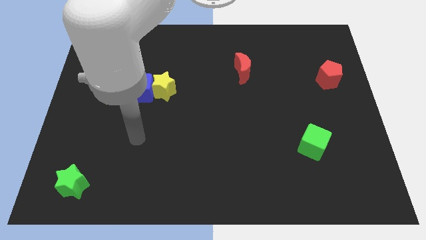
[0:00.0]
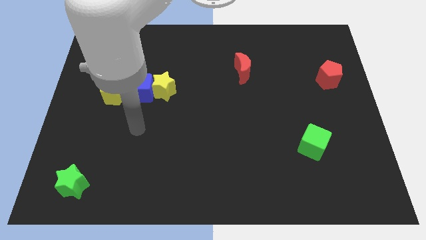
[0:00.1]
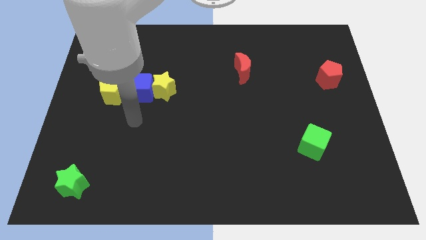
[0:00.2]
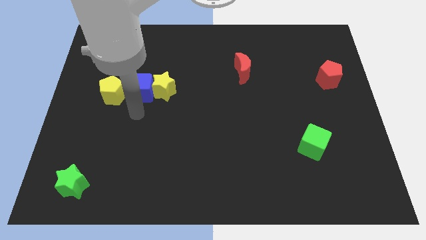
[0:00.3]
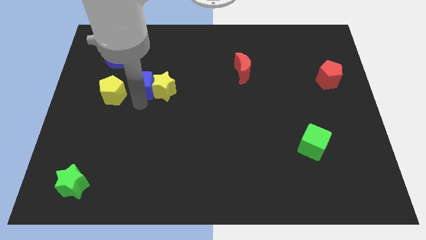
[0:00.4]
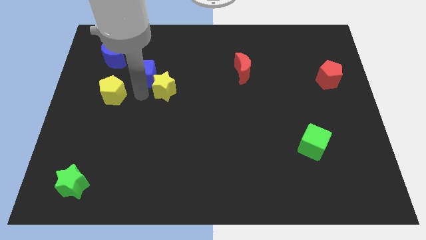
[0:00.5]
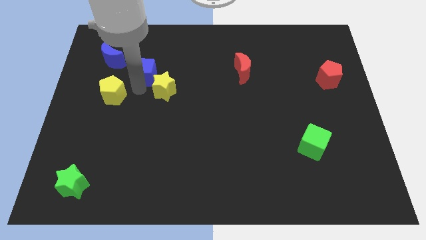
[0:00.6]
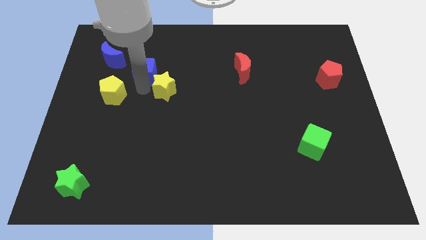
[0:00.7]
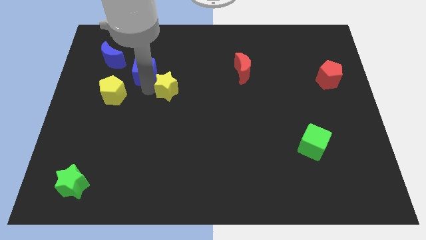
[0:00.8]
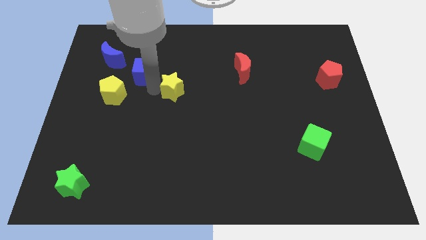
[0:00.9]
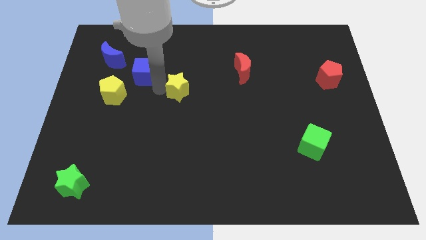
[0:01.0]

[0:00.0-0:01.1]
move the yellow star away from the blue cube

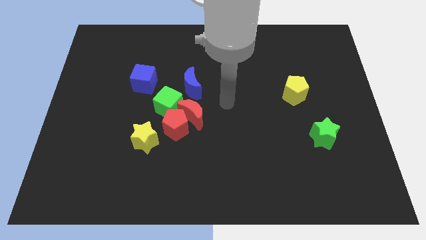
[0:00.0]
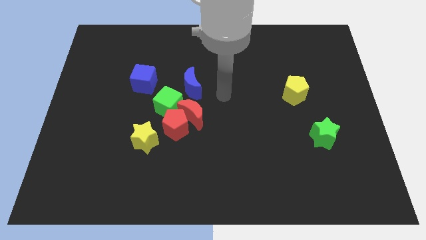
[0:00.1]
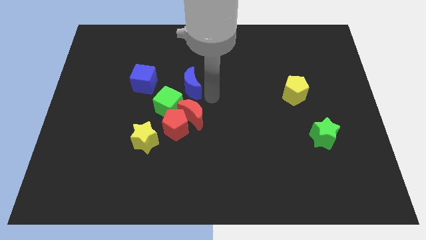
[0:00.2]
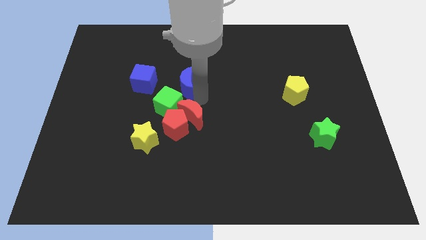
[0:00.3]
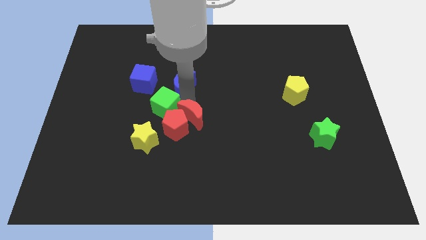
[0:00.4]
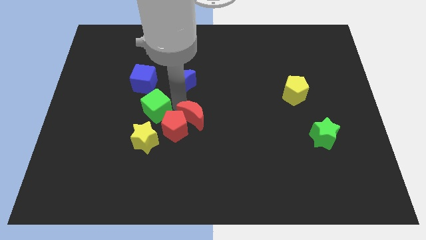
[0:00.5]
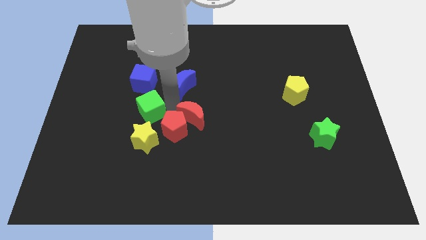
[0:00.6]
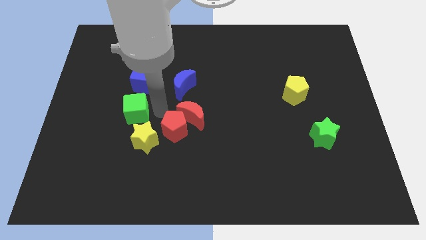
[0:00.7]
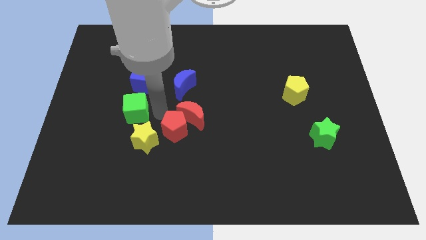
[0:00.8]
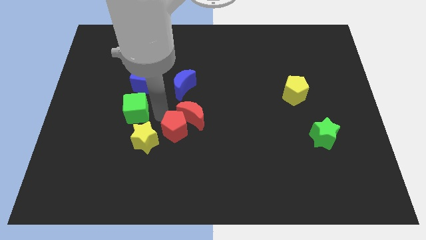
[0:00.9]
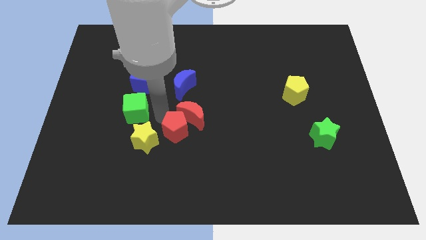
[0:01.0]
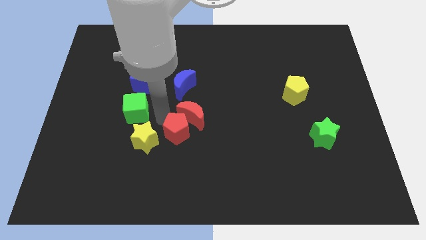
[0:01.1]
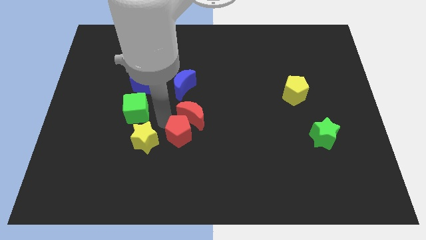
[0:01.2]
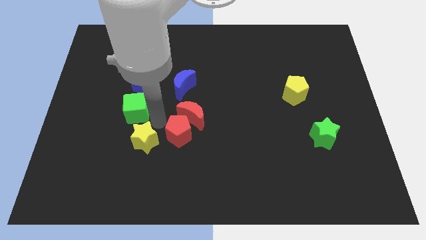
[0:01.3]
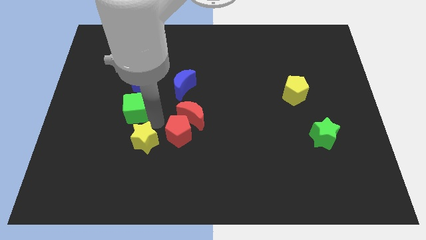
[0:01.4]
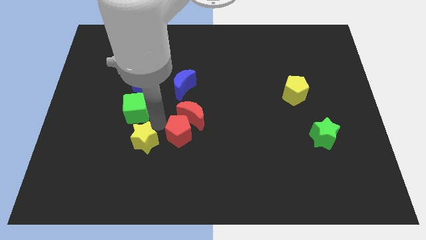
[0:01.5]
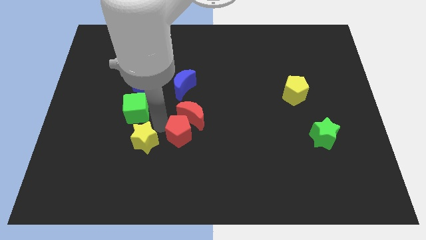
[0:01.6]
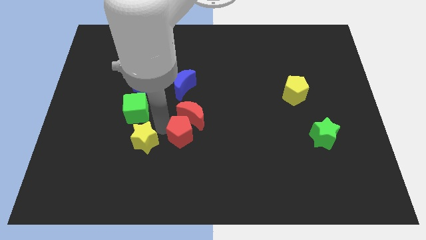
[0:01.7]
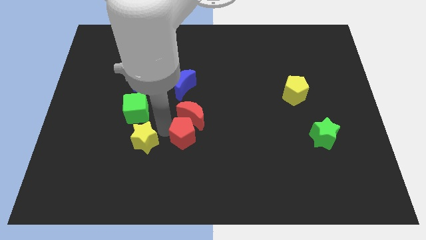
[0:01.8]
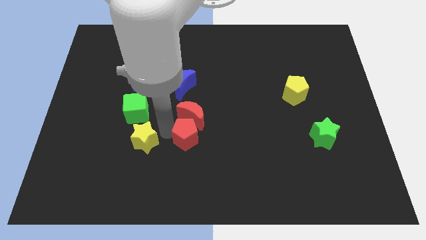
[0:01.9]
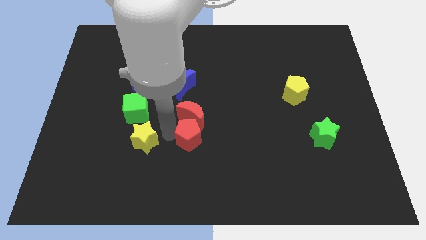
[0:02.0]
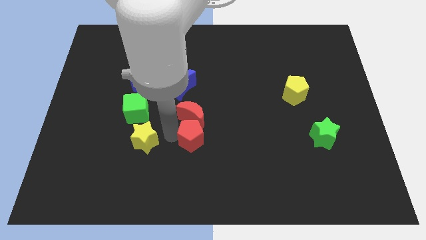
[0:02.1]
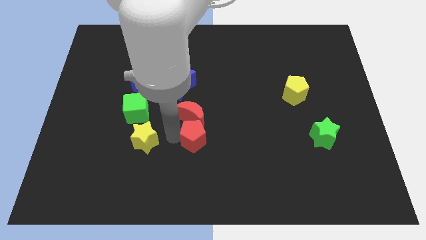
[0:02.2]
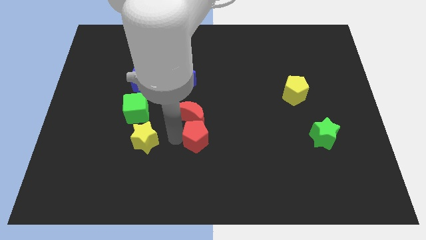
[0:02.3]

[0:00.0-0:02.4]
move the red pentagon away from the clump

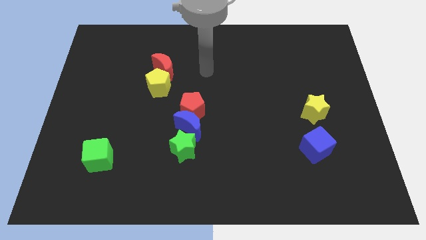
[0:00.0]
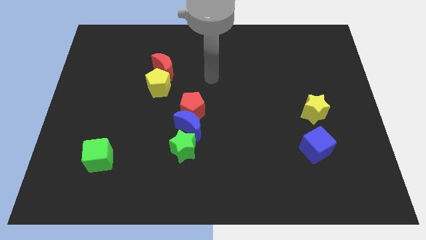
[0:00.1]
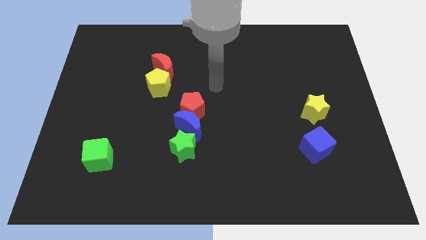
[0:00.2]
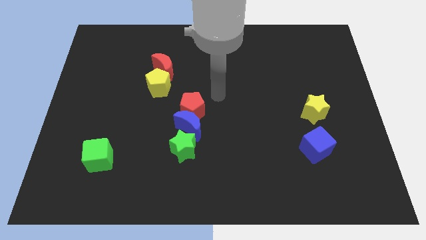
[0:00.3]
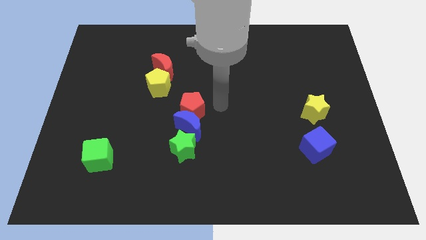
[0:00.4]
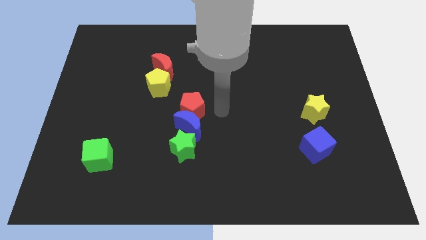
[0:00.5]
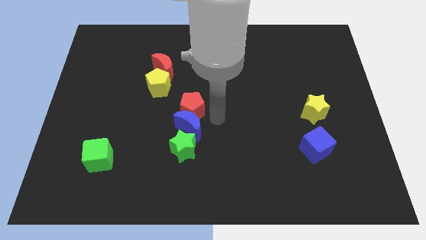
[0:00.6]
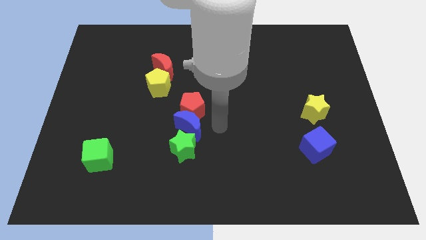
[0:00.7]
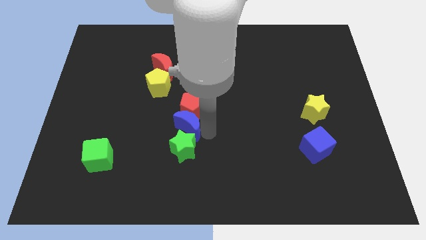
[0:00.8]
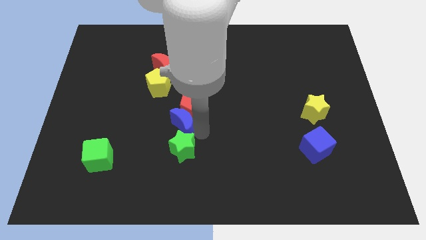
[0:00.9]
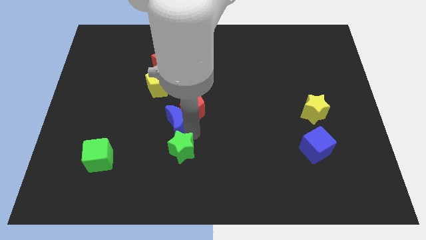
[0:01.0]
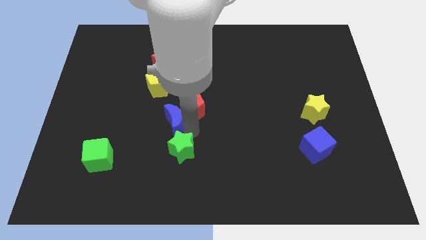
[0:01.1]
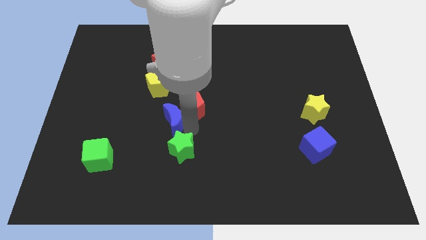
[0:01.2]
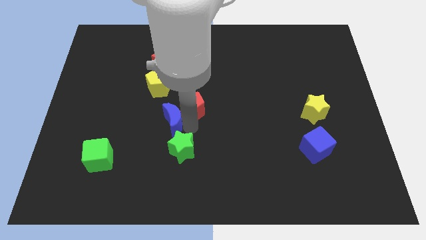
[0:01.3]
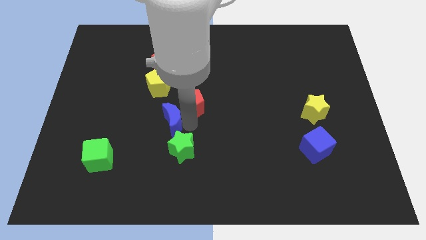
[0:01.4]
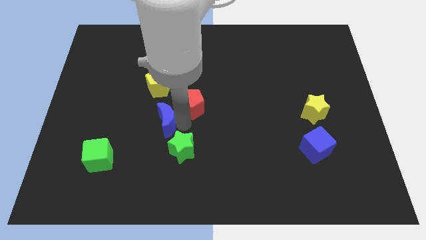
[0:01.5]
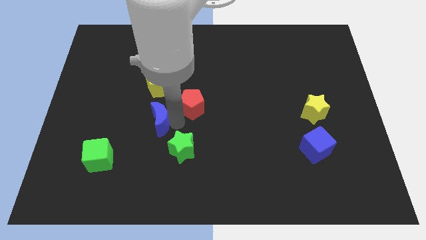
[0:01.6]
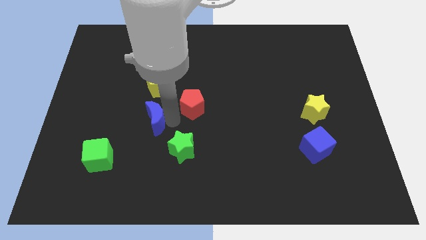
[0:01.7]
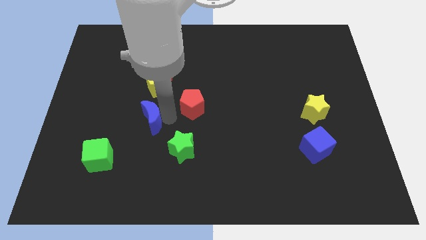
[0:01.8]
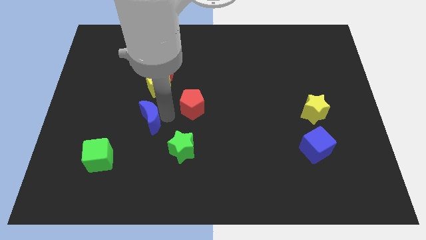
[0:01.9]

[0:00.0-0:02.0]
move the red pentagon away from the blue moon

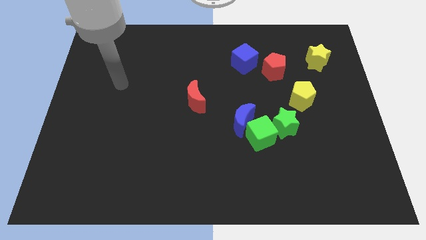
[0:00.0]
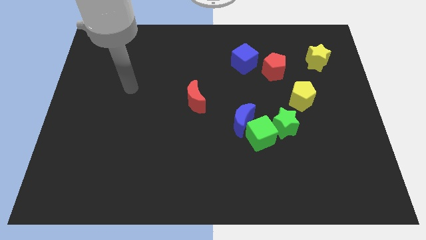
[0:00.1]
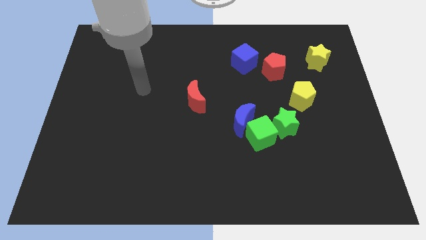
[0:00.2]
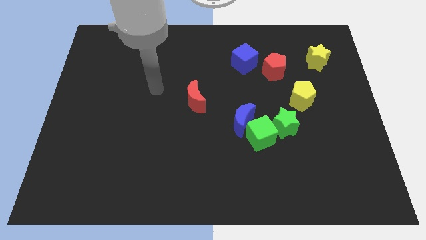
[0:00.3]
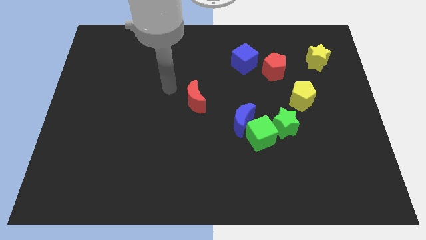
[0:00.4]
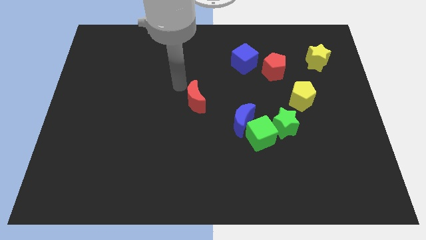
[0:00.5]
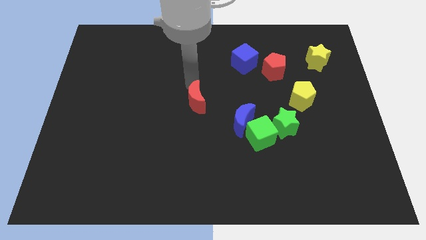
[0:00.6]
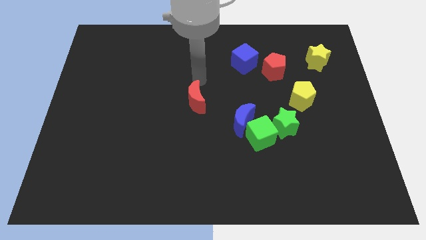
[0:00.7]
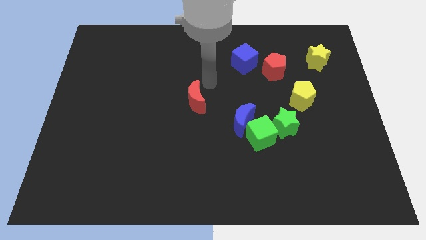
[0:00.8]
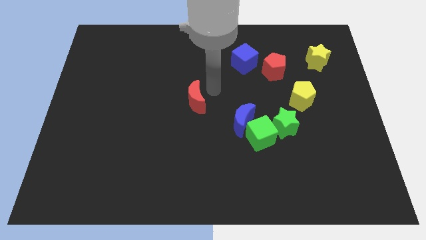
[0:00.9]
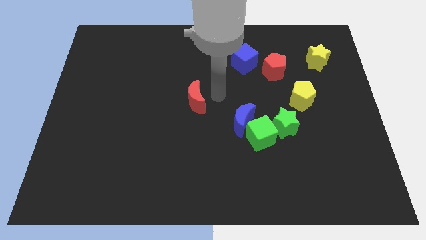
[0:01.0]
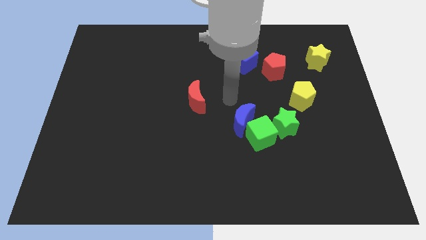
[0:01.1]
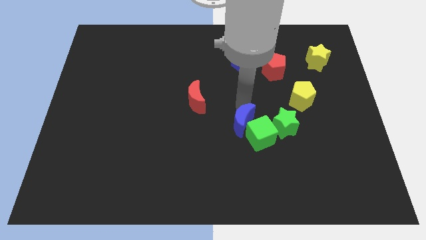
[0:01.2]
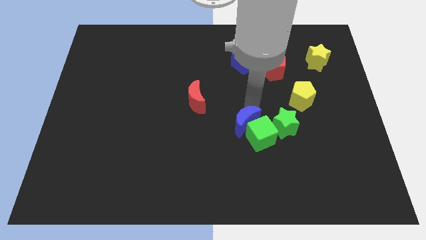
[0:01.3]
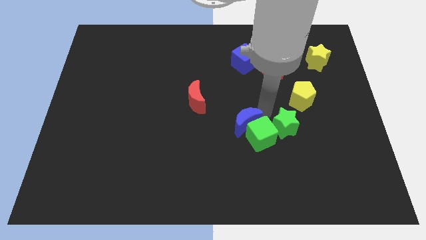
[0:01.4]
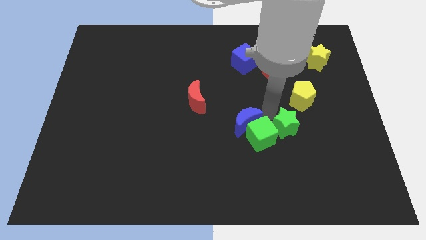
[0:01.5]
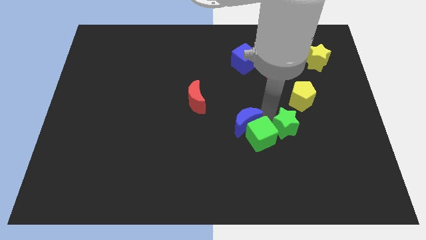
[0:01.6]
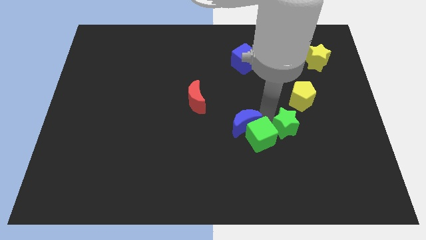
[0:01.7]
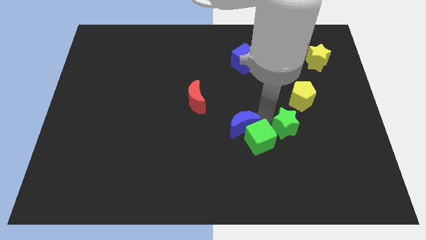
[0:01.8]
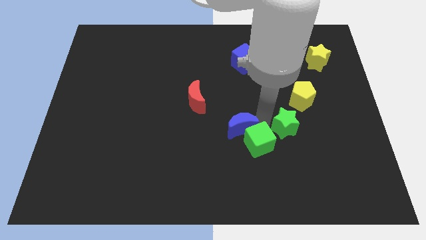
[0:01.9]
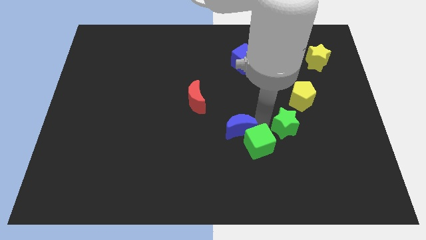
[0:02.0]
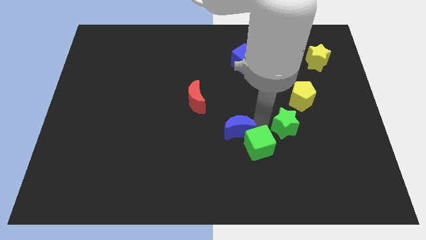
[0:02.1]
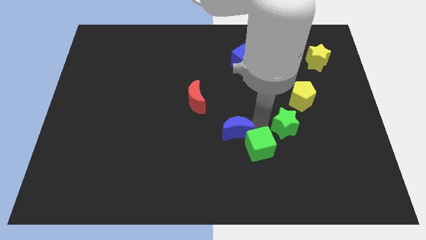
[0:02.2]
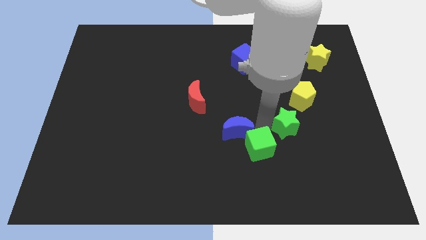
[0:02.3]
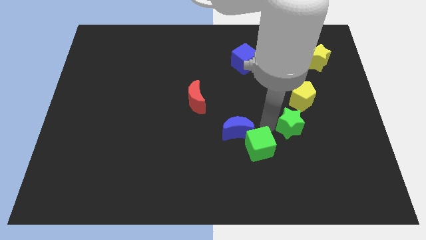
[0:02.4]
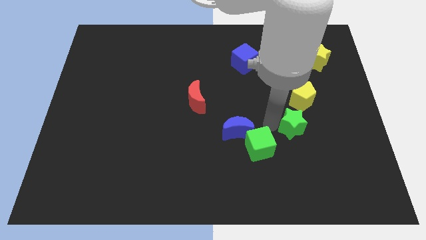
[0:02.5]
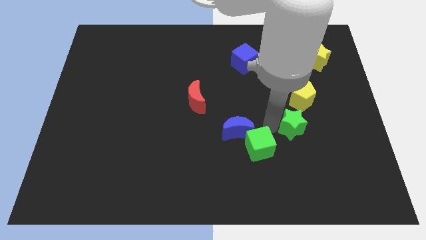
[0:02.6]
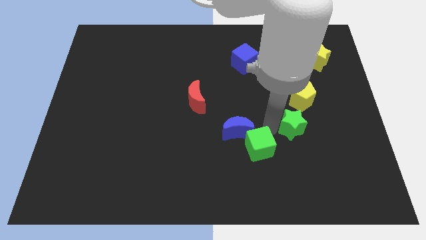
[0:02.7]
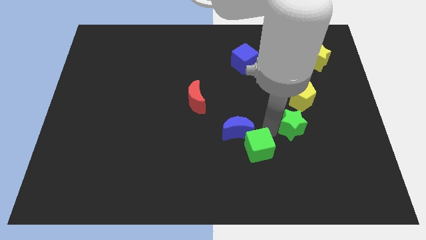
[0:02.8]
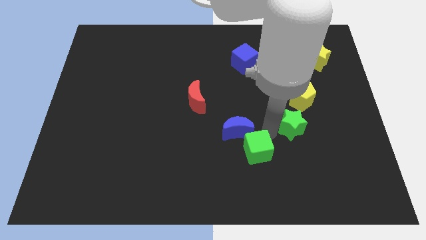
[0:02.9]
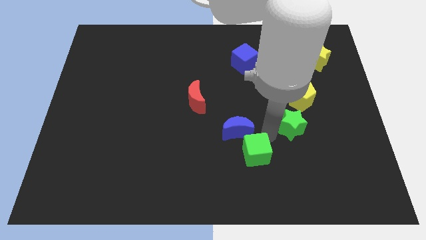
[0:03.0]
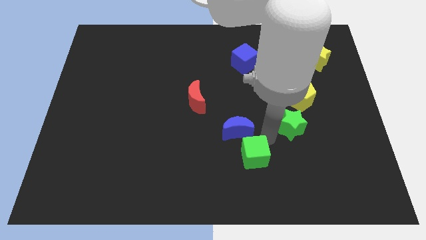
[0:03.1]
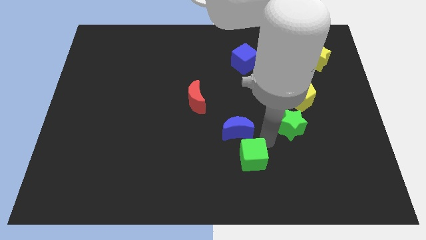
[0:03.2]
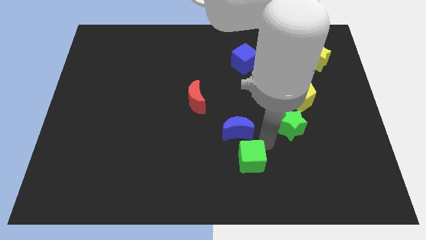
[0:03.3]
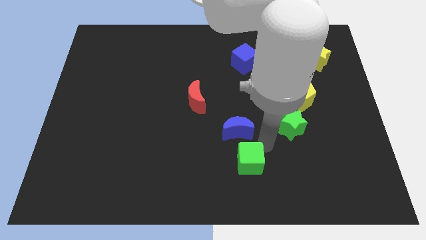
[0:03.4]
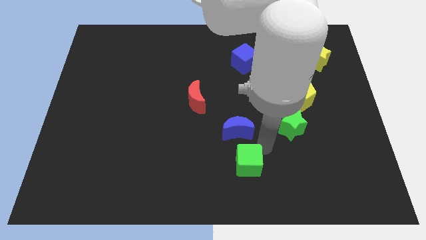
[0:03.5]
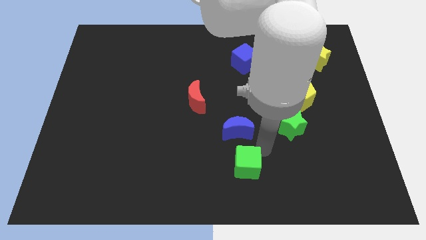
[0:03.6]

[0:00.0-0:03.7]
pull the green cube apart from the blue moon and green star

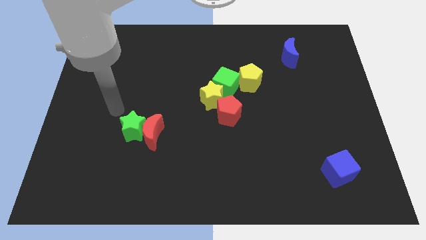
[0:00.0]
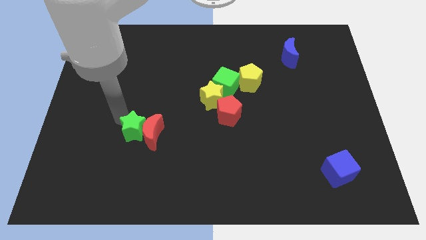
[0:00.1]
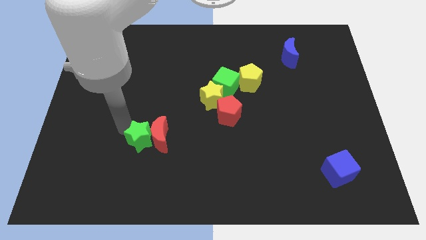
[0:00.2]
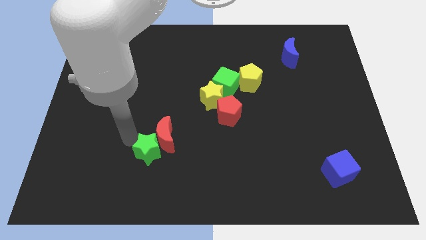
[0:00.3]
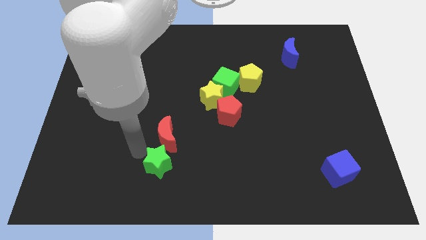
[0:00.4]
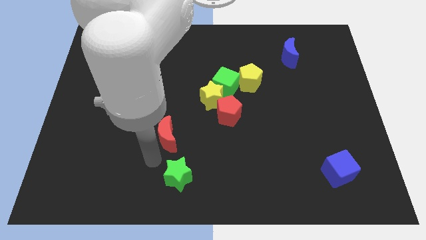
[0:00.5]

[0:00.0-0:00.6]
move the red moon away from the green star
